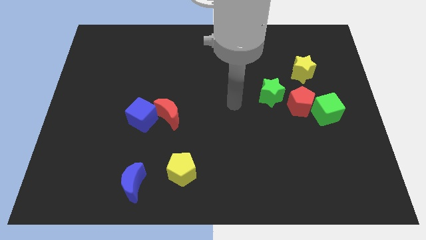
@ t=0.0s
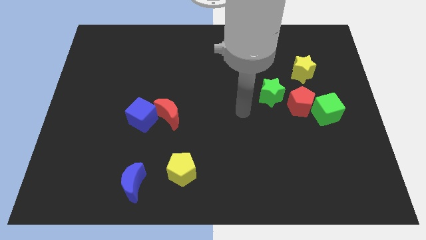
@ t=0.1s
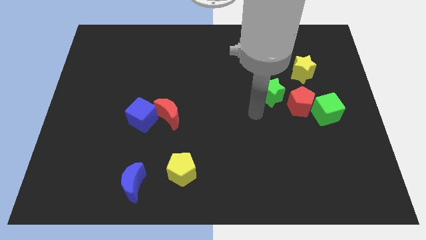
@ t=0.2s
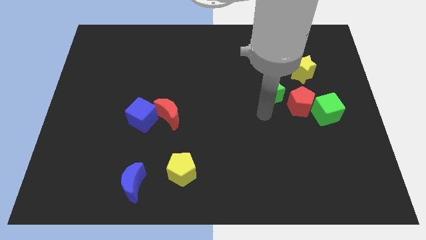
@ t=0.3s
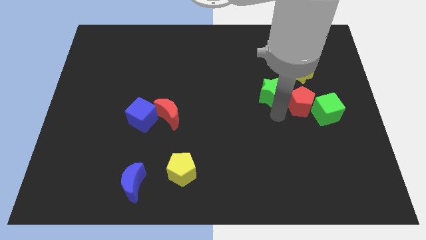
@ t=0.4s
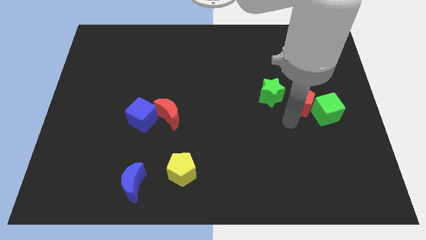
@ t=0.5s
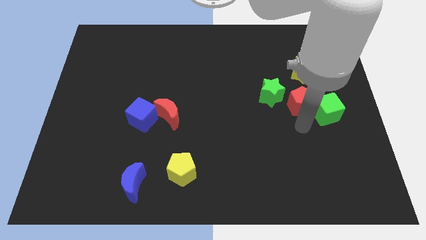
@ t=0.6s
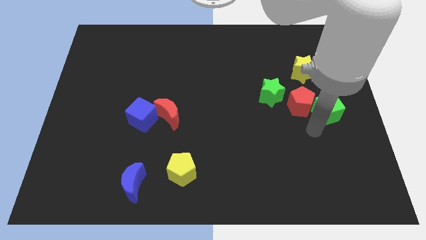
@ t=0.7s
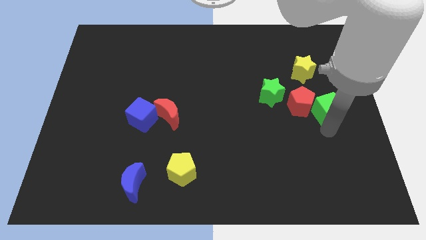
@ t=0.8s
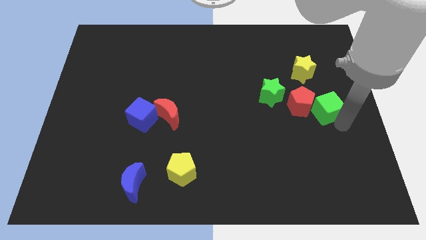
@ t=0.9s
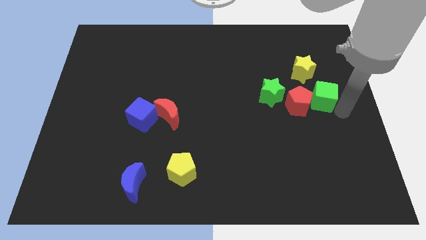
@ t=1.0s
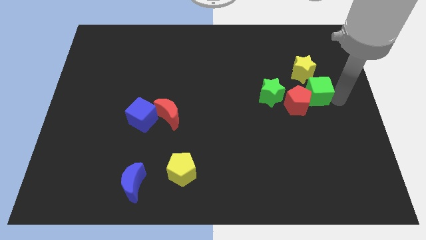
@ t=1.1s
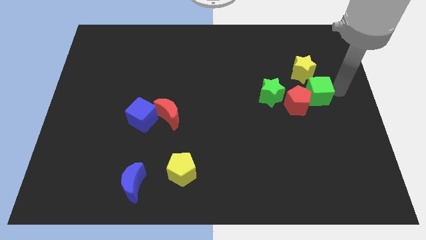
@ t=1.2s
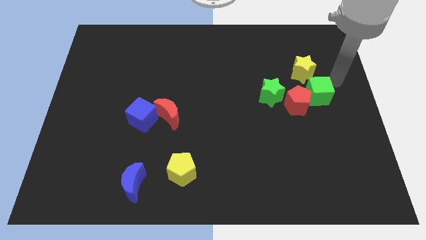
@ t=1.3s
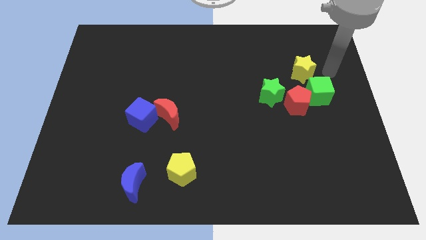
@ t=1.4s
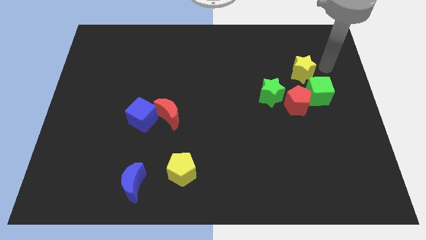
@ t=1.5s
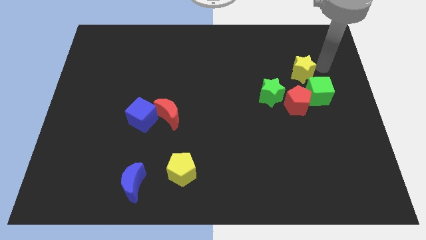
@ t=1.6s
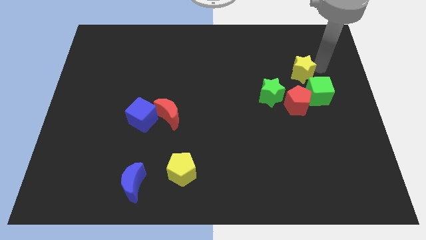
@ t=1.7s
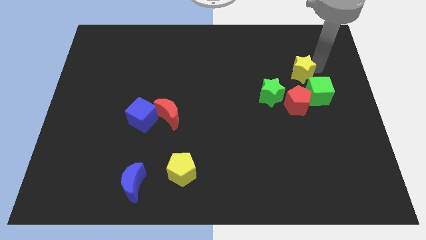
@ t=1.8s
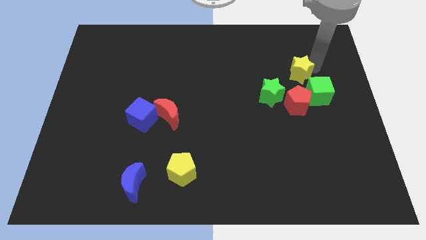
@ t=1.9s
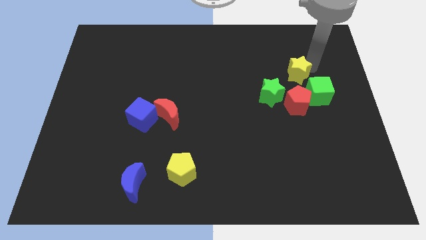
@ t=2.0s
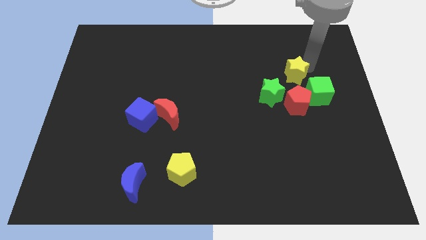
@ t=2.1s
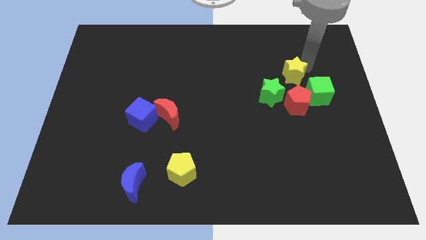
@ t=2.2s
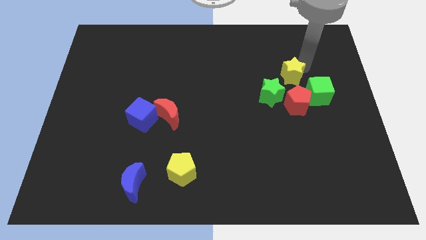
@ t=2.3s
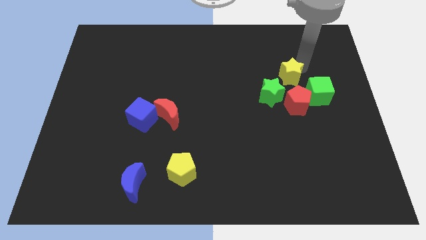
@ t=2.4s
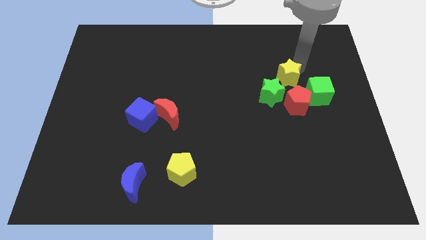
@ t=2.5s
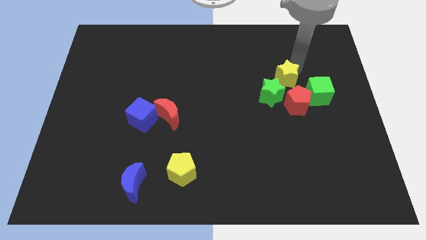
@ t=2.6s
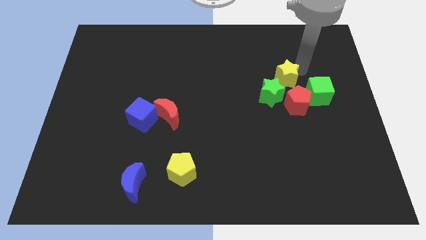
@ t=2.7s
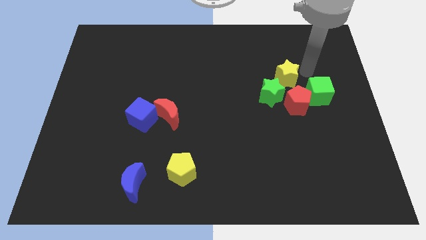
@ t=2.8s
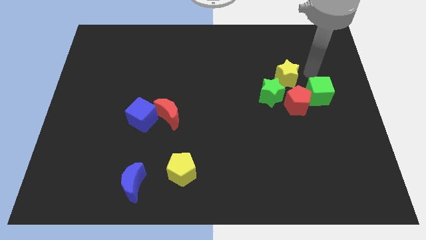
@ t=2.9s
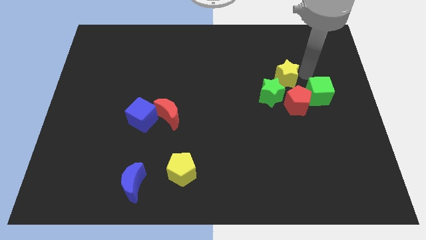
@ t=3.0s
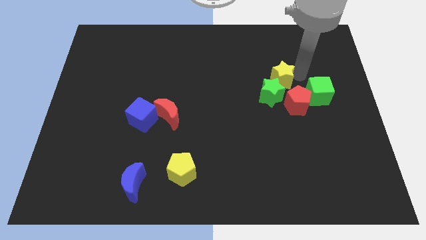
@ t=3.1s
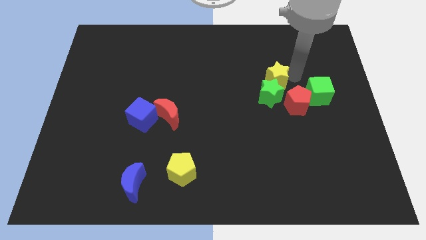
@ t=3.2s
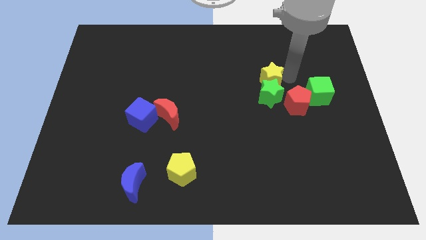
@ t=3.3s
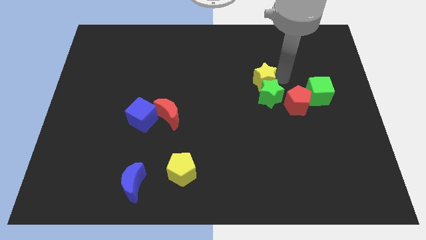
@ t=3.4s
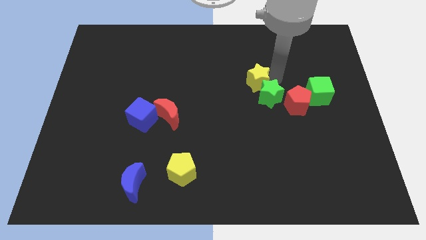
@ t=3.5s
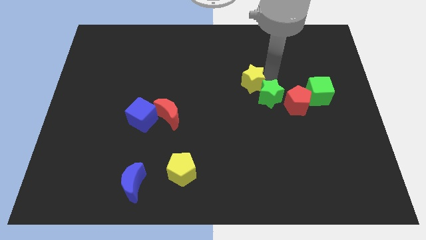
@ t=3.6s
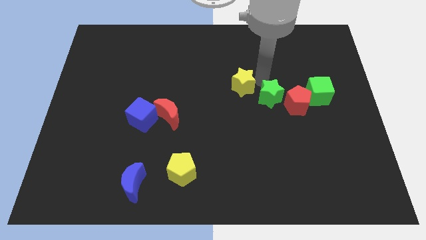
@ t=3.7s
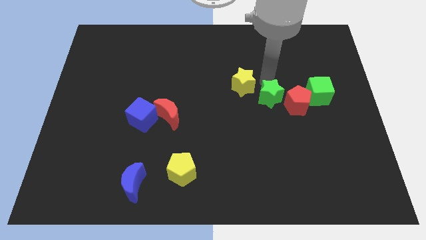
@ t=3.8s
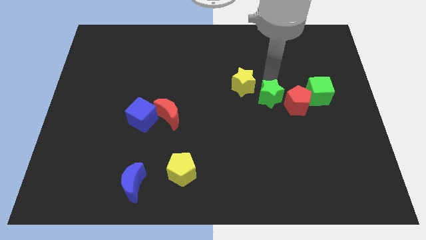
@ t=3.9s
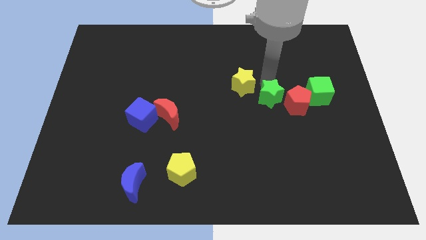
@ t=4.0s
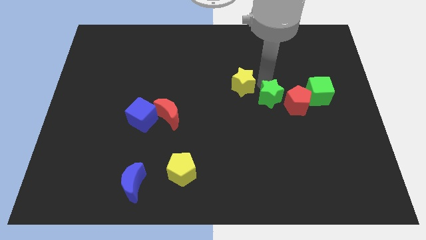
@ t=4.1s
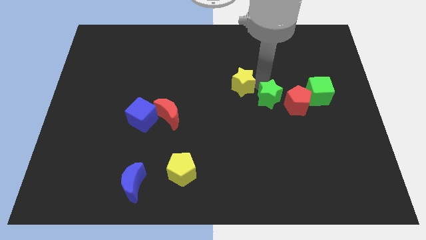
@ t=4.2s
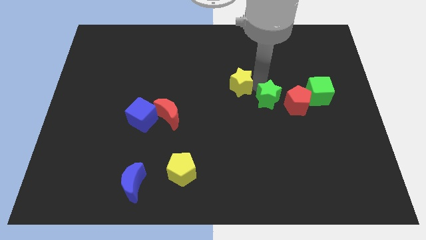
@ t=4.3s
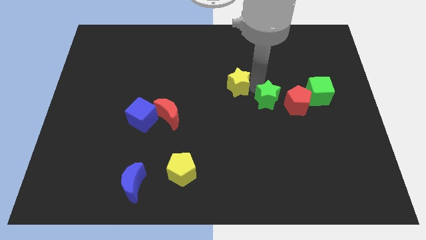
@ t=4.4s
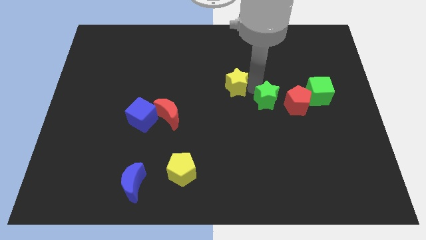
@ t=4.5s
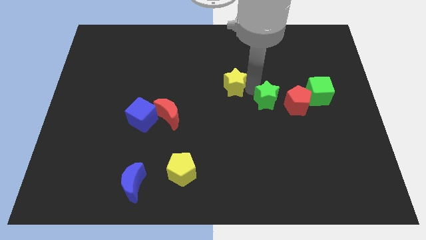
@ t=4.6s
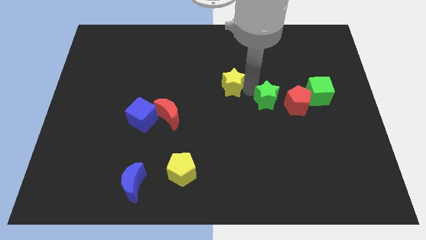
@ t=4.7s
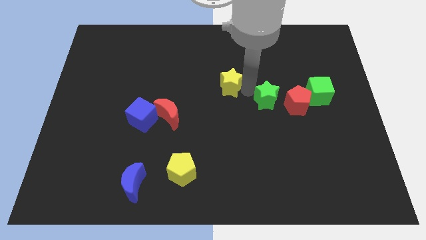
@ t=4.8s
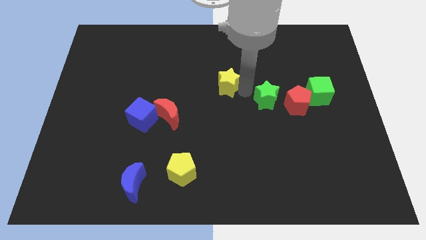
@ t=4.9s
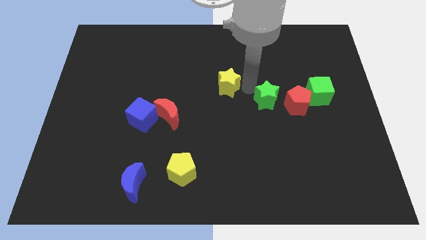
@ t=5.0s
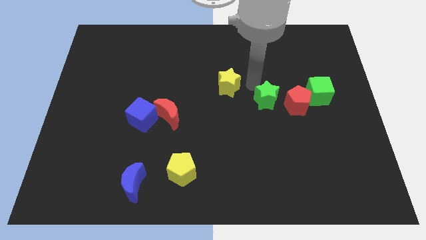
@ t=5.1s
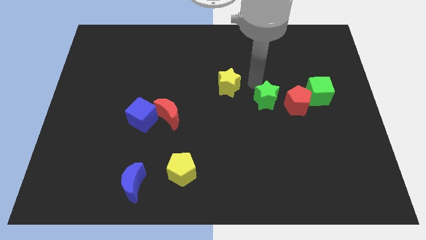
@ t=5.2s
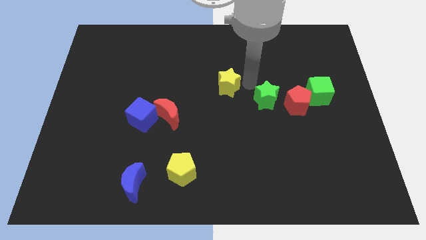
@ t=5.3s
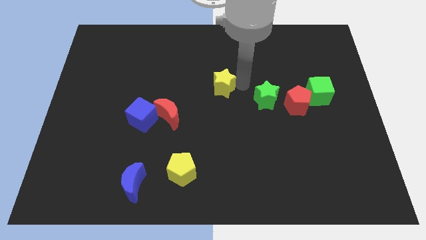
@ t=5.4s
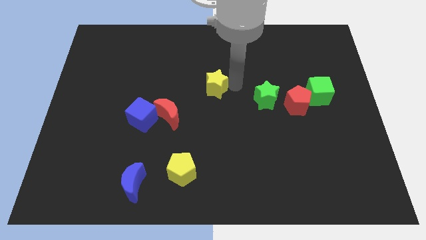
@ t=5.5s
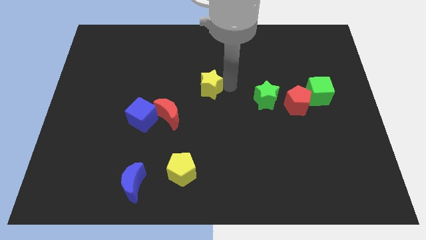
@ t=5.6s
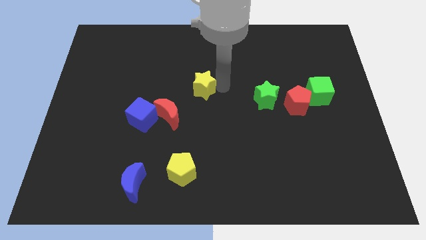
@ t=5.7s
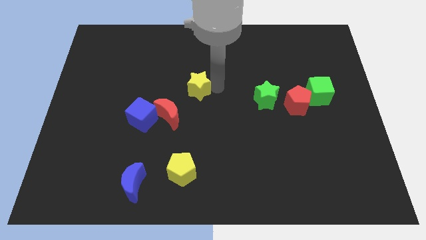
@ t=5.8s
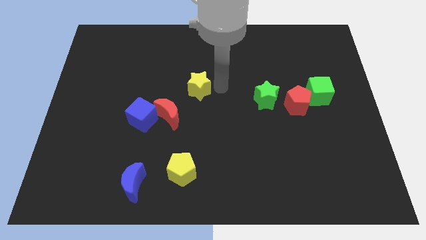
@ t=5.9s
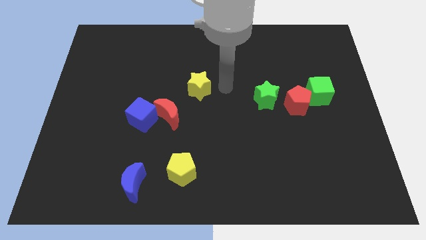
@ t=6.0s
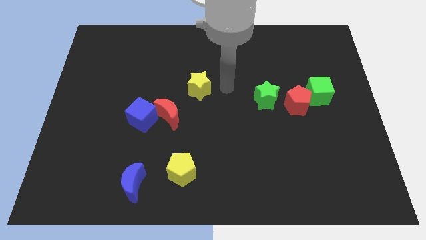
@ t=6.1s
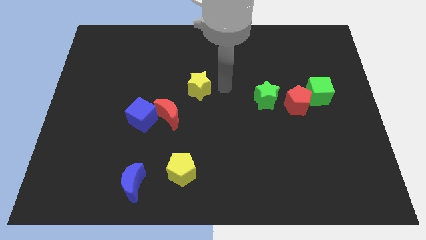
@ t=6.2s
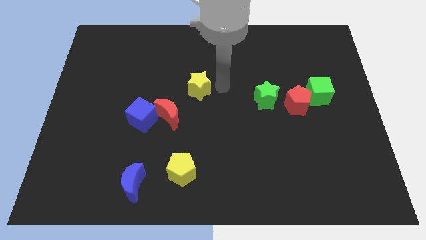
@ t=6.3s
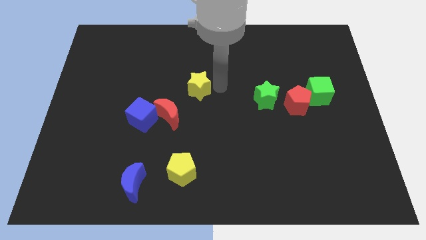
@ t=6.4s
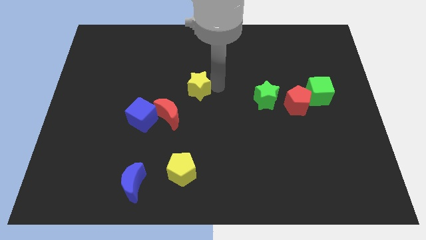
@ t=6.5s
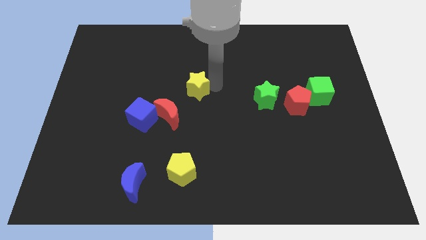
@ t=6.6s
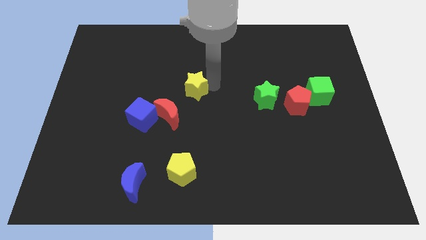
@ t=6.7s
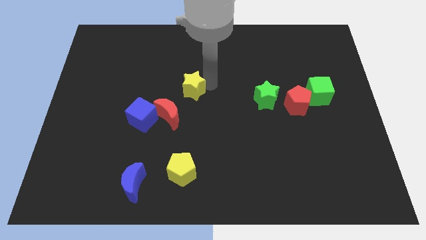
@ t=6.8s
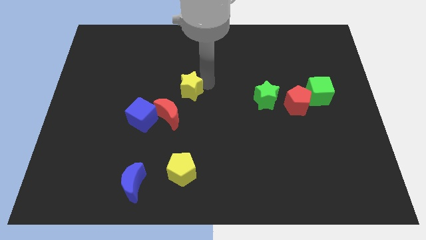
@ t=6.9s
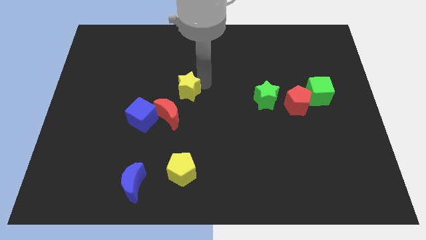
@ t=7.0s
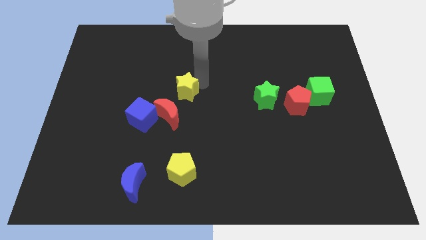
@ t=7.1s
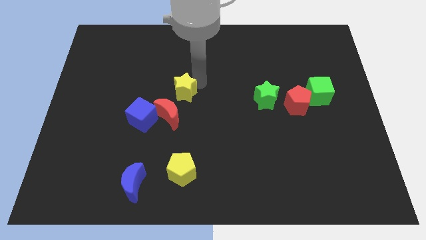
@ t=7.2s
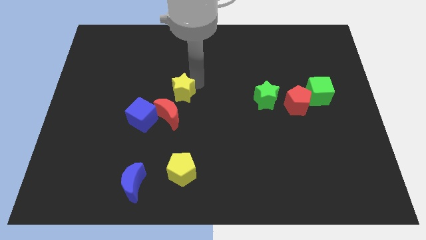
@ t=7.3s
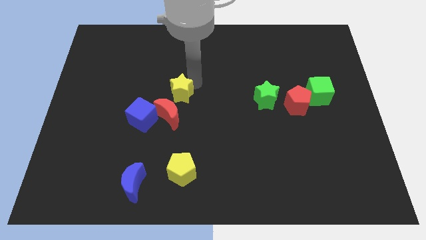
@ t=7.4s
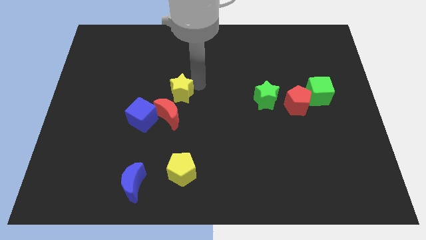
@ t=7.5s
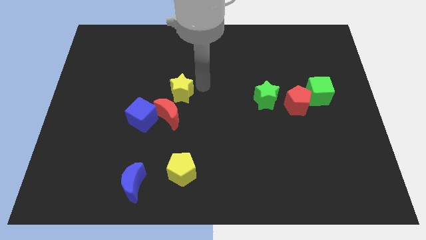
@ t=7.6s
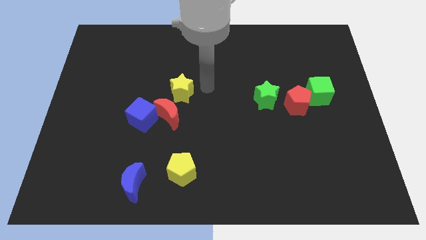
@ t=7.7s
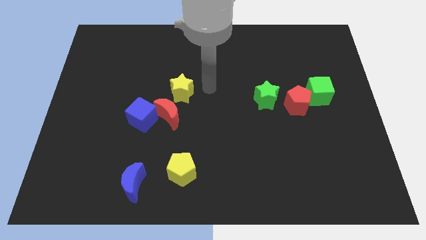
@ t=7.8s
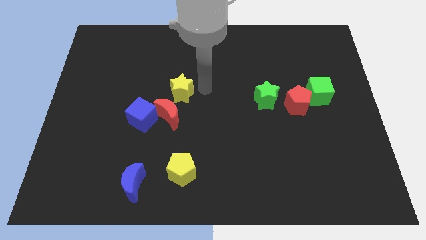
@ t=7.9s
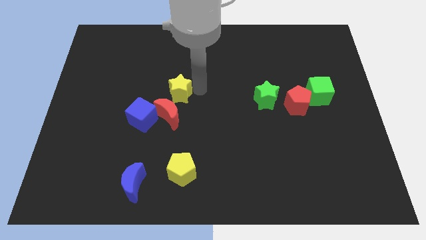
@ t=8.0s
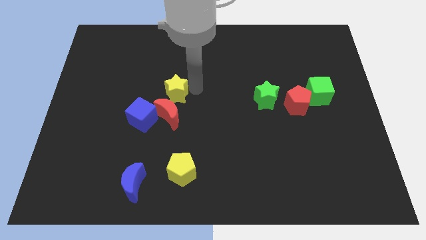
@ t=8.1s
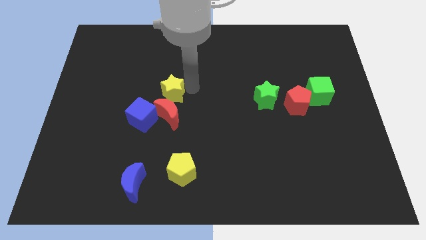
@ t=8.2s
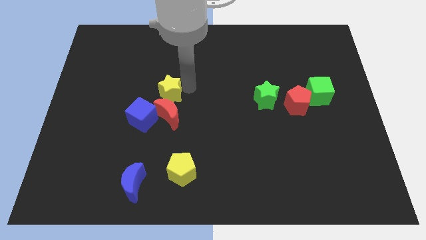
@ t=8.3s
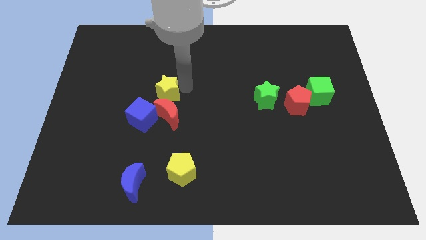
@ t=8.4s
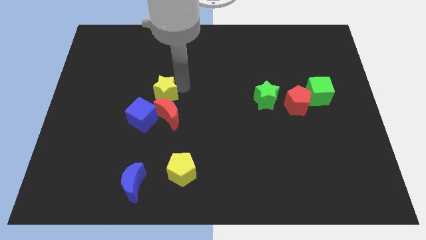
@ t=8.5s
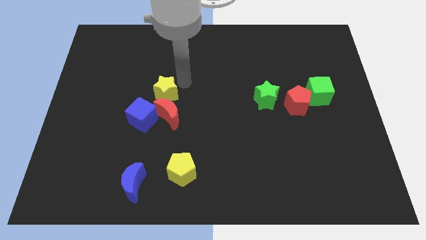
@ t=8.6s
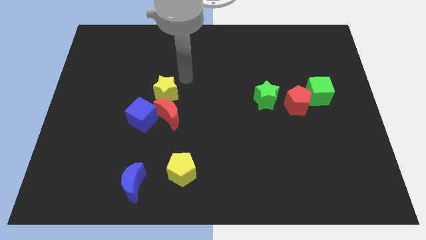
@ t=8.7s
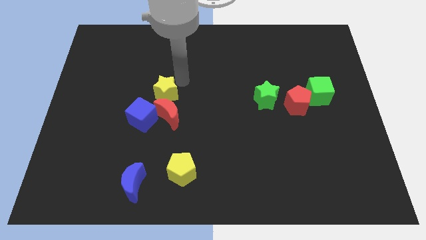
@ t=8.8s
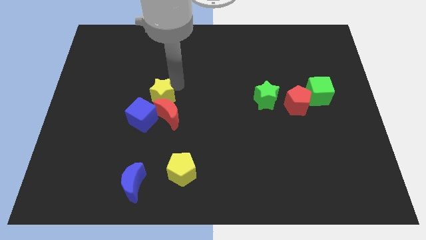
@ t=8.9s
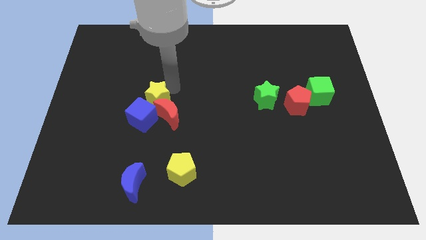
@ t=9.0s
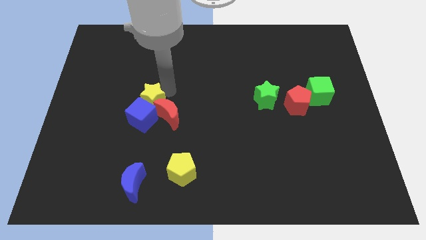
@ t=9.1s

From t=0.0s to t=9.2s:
move the yellow star close to the blue cube
